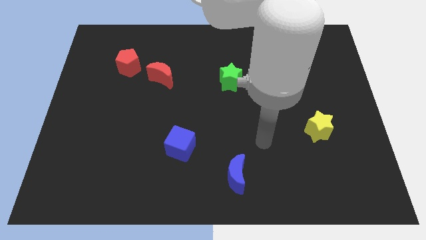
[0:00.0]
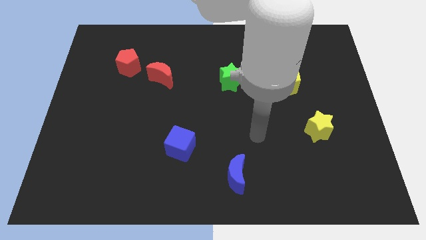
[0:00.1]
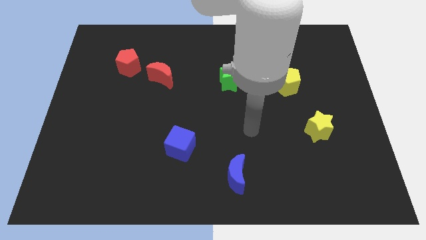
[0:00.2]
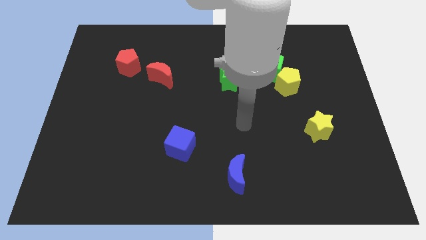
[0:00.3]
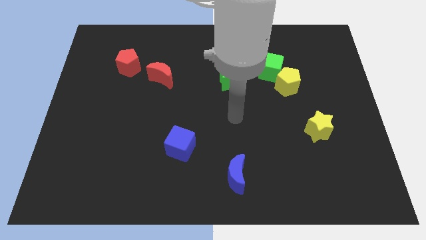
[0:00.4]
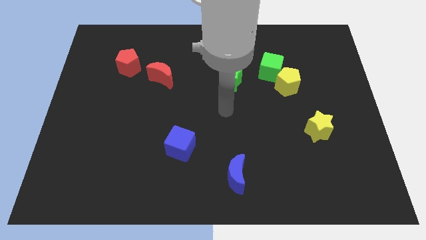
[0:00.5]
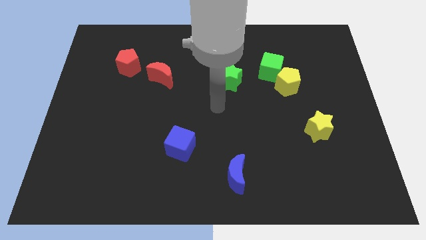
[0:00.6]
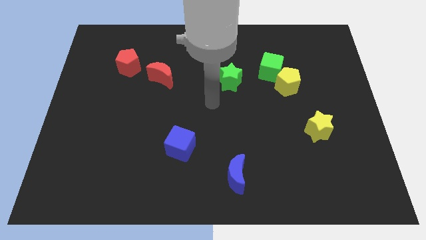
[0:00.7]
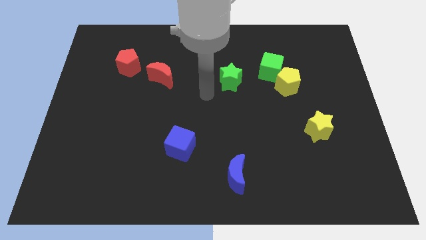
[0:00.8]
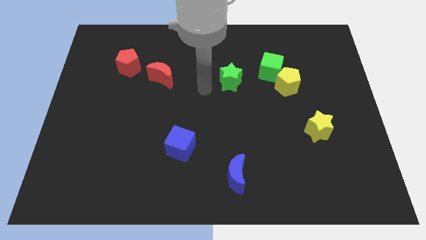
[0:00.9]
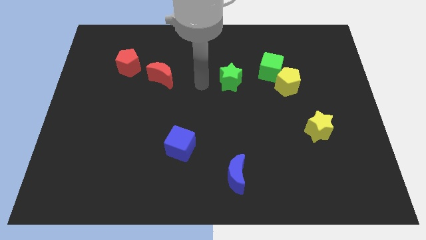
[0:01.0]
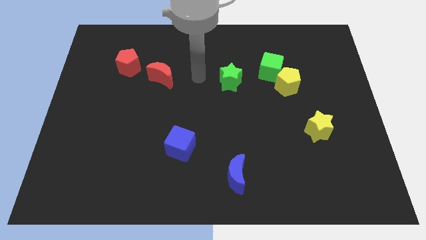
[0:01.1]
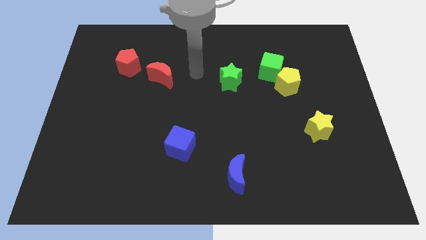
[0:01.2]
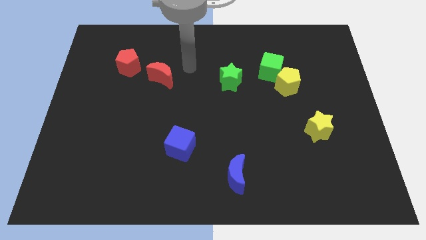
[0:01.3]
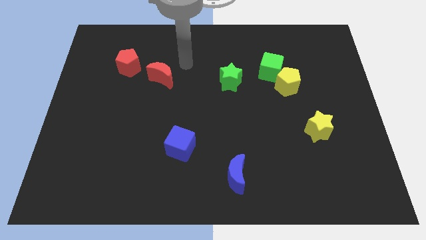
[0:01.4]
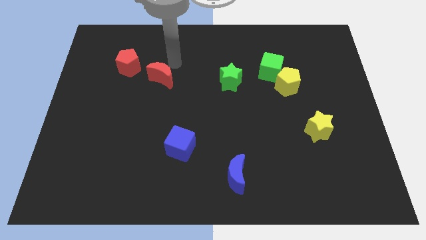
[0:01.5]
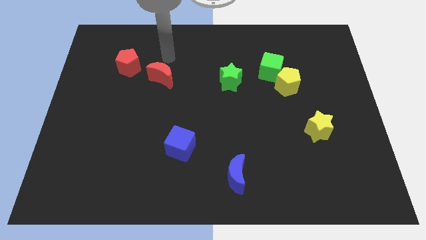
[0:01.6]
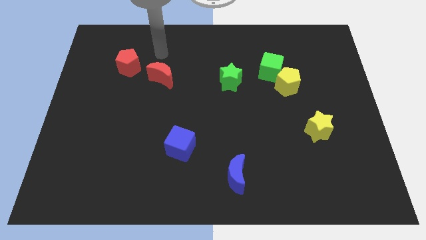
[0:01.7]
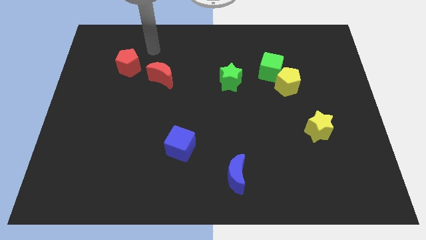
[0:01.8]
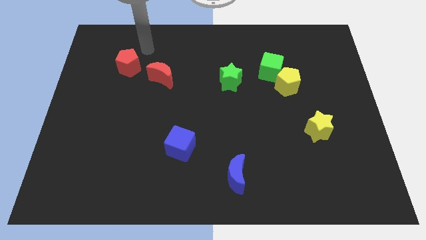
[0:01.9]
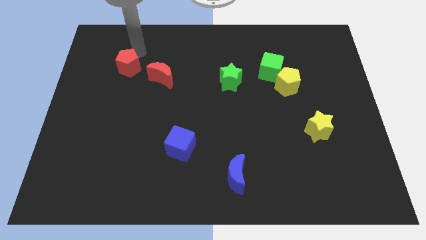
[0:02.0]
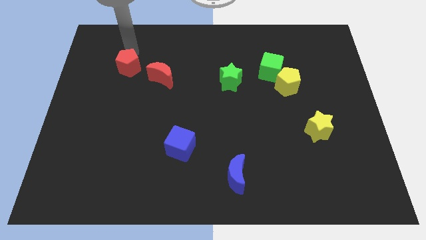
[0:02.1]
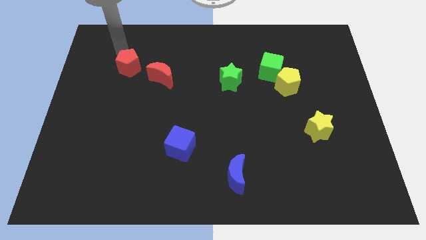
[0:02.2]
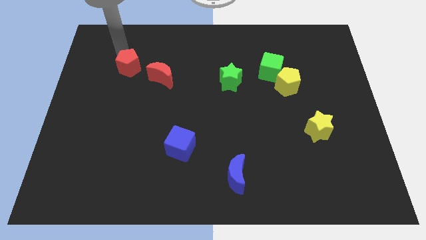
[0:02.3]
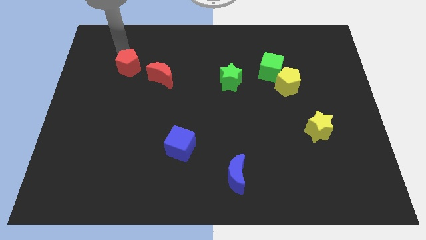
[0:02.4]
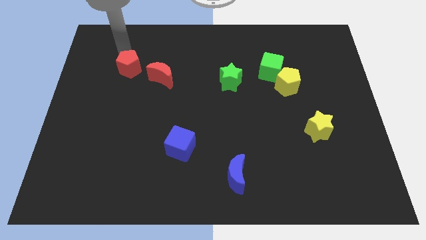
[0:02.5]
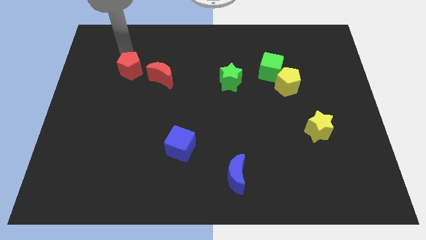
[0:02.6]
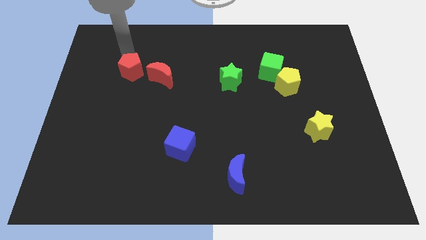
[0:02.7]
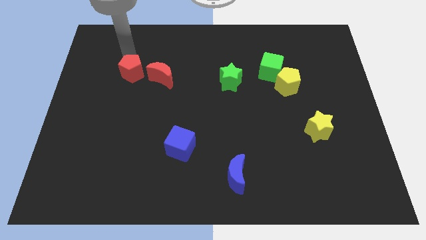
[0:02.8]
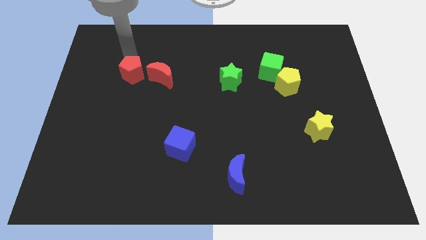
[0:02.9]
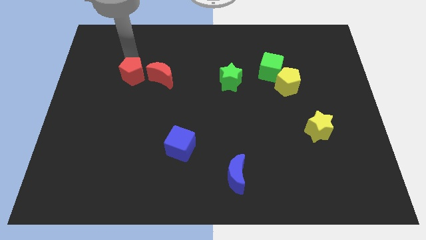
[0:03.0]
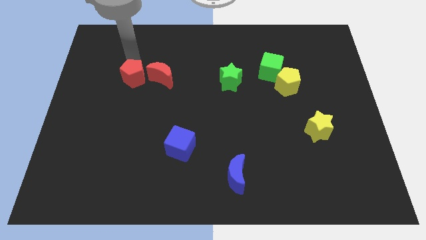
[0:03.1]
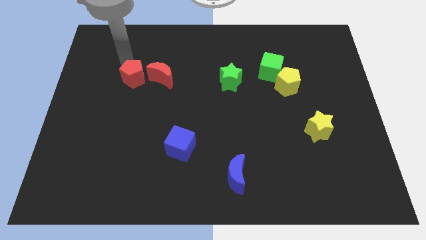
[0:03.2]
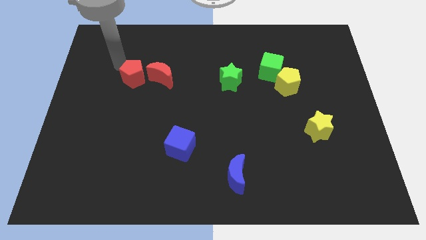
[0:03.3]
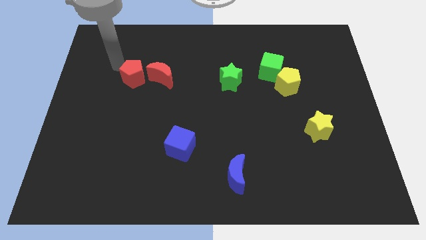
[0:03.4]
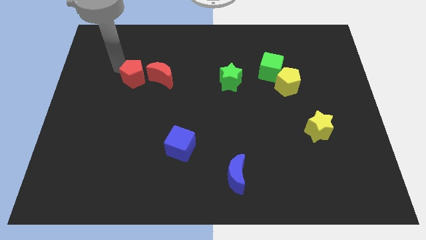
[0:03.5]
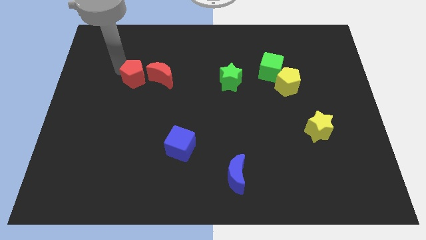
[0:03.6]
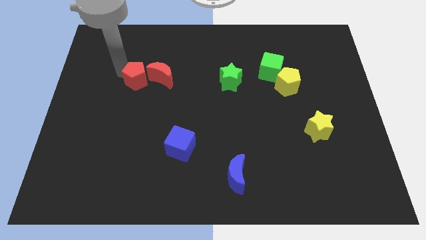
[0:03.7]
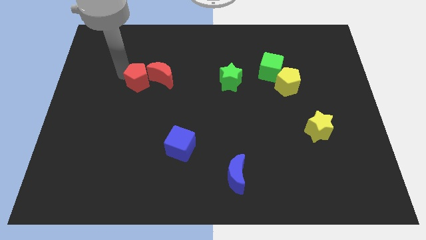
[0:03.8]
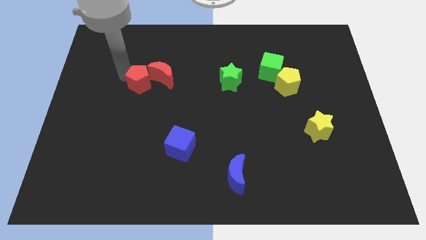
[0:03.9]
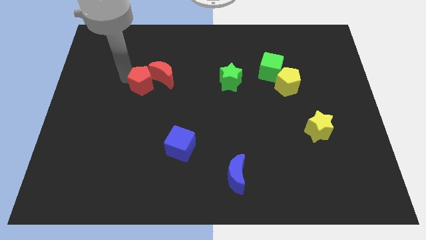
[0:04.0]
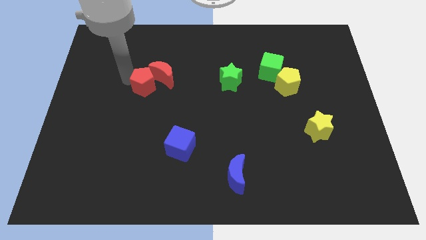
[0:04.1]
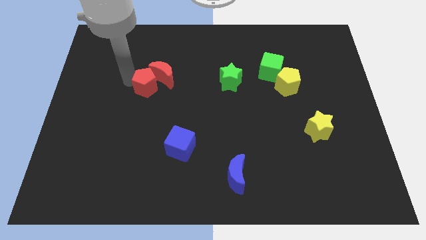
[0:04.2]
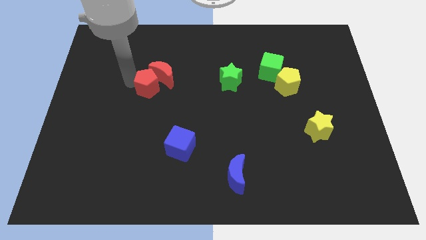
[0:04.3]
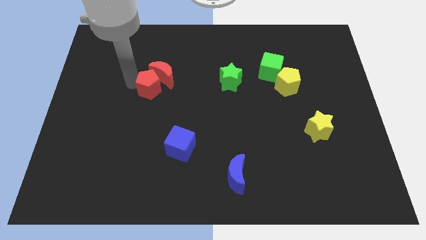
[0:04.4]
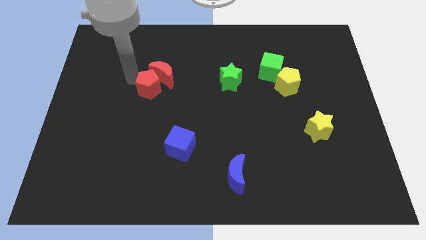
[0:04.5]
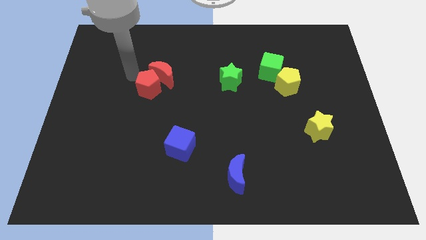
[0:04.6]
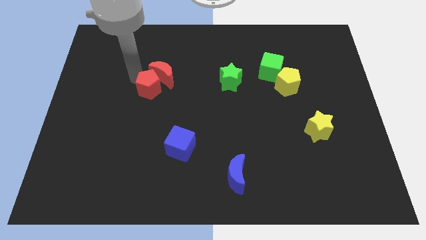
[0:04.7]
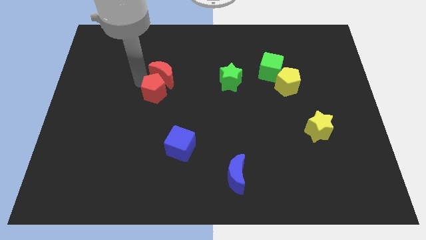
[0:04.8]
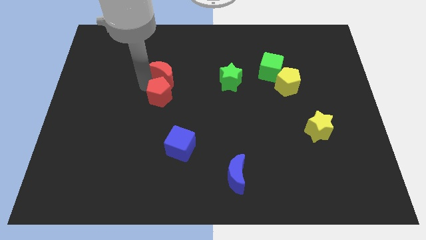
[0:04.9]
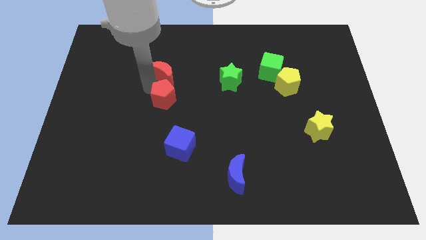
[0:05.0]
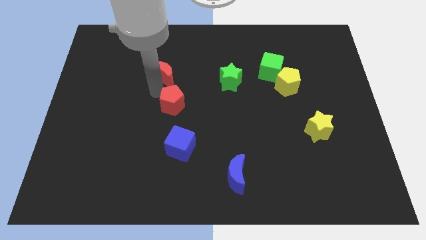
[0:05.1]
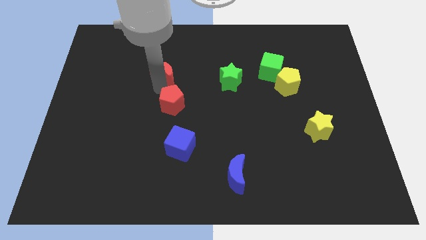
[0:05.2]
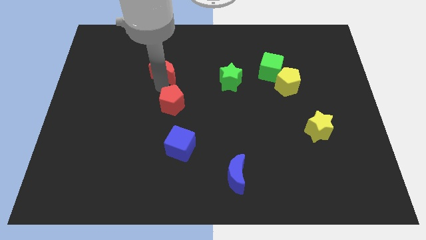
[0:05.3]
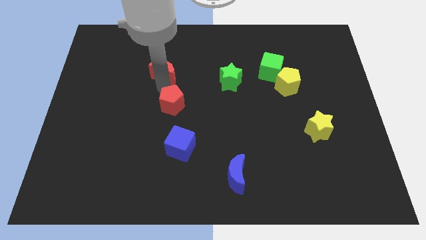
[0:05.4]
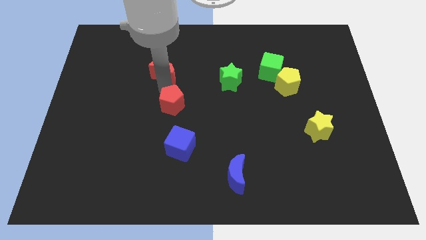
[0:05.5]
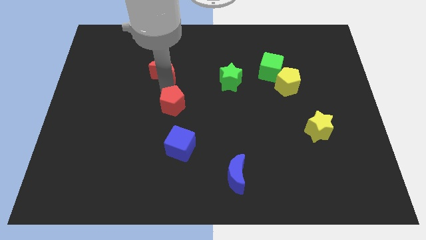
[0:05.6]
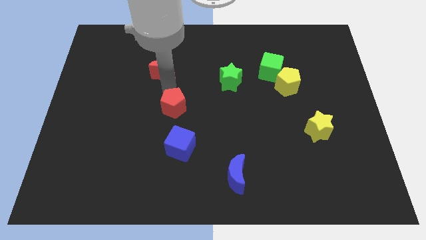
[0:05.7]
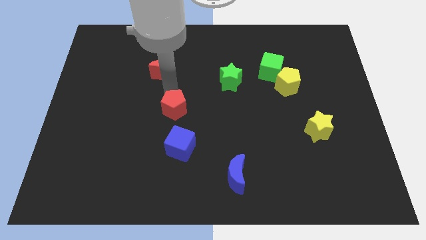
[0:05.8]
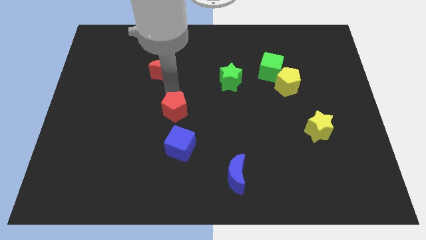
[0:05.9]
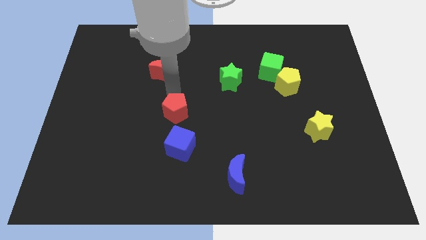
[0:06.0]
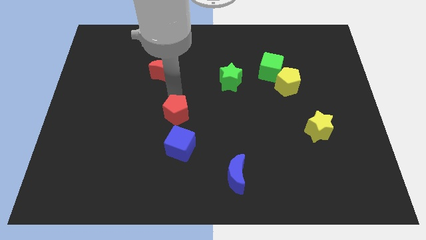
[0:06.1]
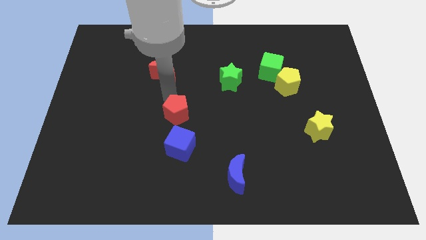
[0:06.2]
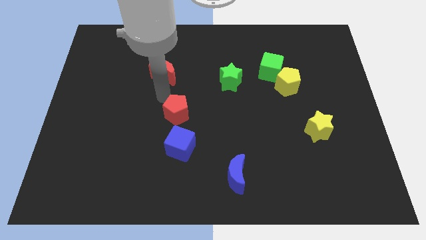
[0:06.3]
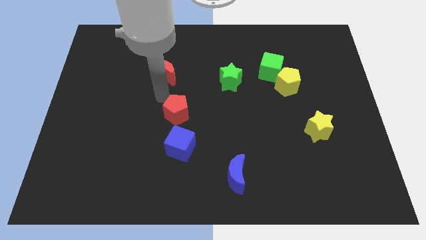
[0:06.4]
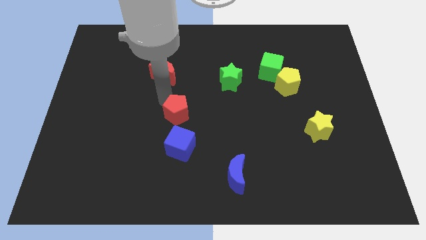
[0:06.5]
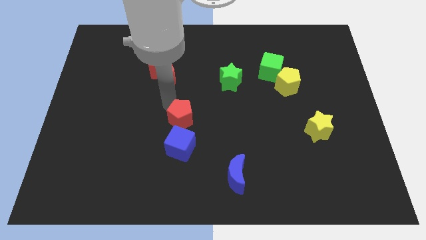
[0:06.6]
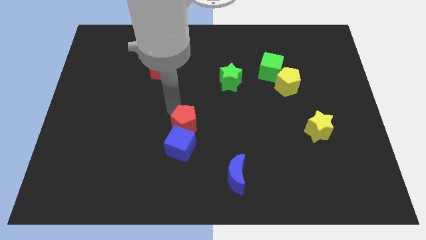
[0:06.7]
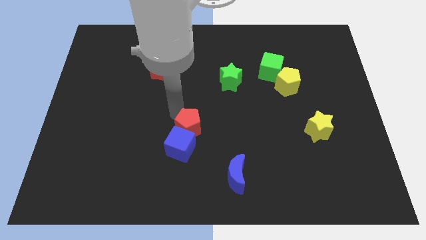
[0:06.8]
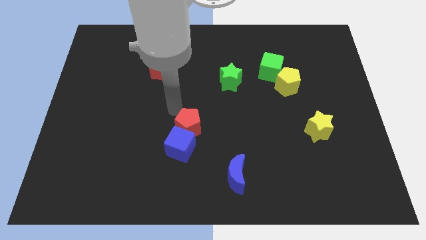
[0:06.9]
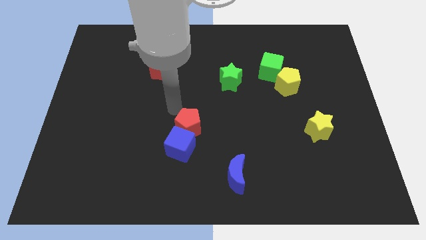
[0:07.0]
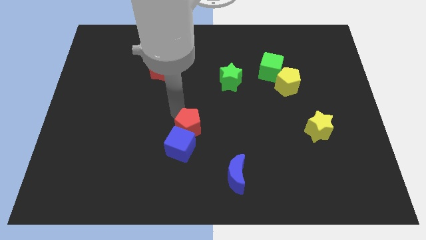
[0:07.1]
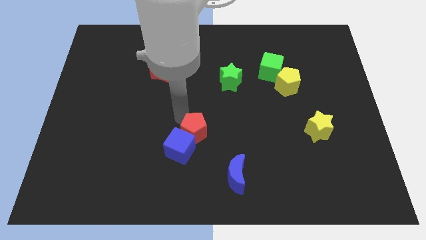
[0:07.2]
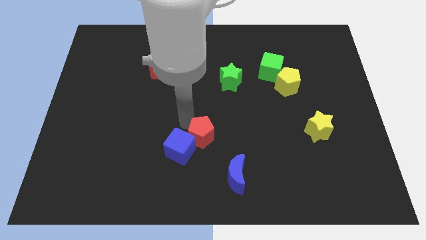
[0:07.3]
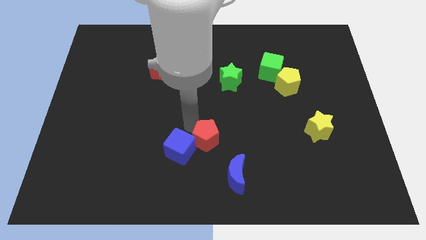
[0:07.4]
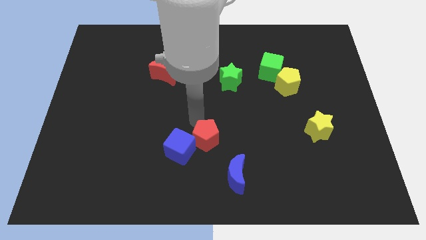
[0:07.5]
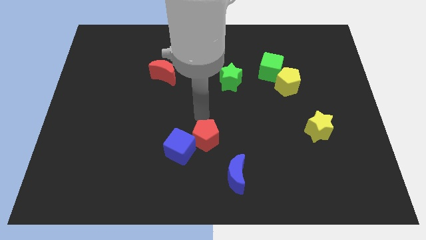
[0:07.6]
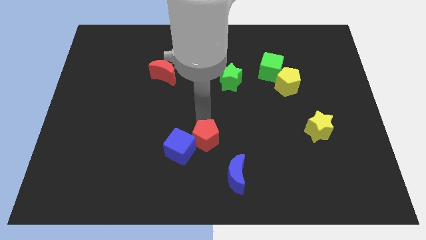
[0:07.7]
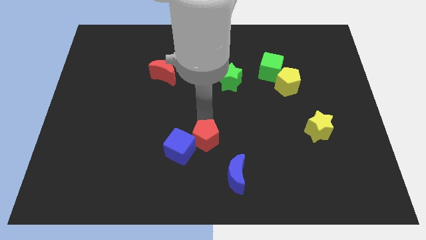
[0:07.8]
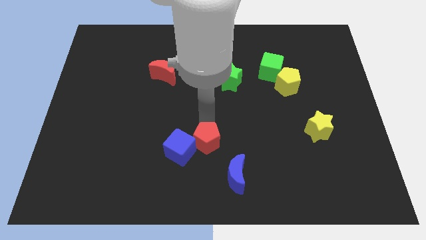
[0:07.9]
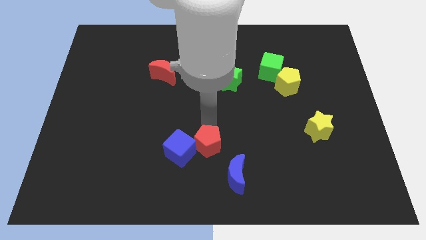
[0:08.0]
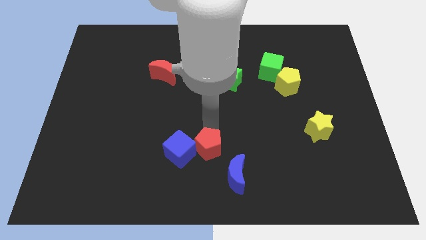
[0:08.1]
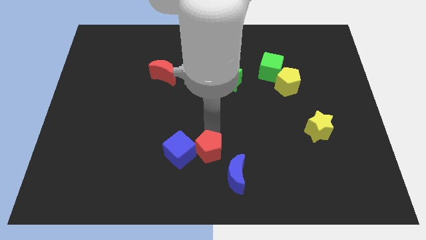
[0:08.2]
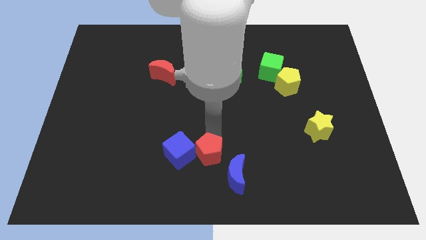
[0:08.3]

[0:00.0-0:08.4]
put the red pentagon to the bottom
